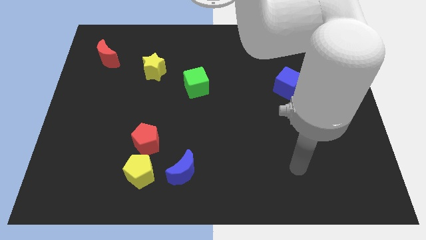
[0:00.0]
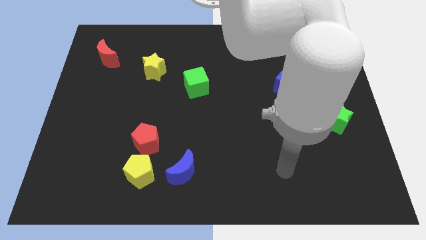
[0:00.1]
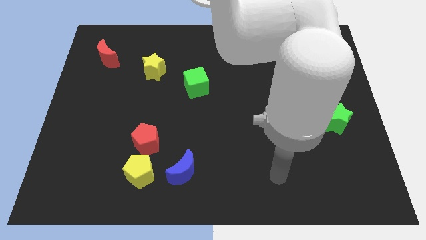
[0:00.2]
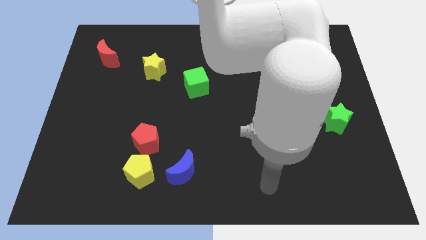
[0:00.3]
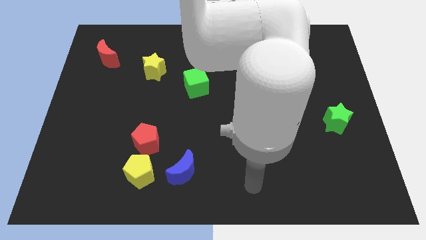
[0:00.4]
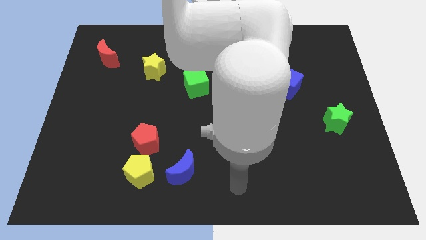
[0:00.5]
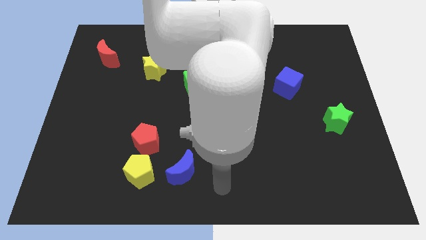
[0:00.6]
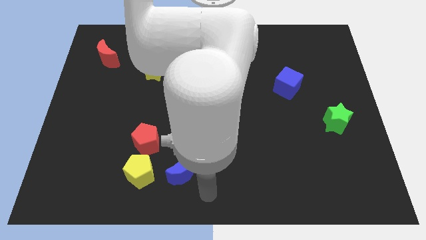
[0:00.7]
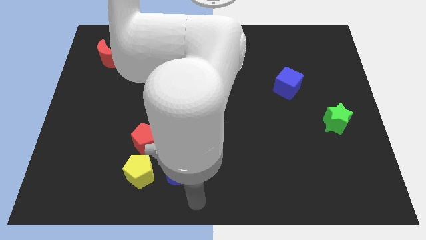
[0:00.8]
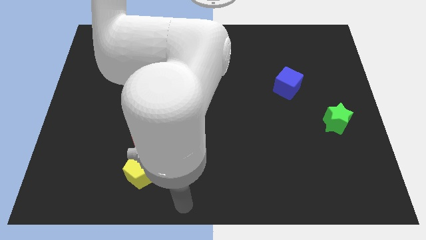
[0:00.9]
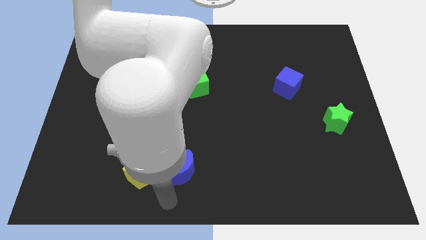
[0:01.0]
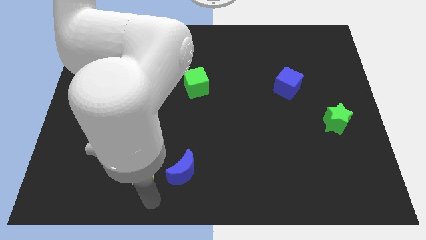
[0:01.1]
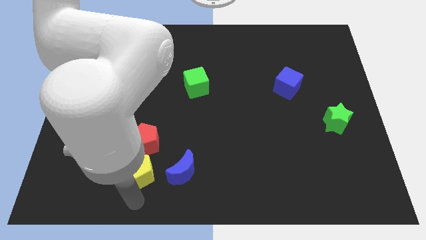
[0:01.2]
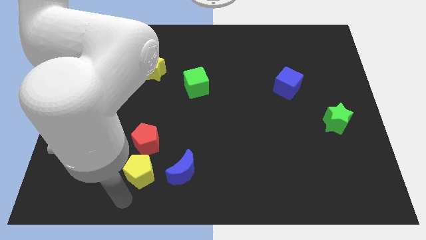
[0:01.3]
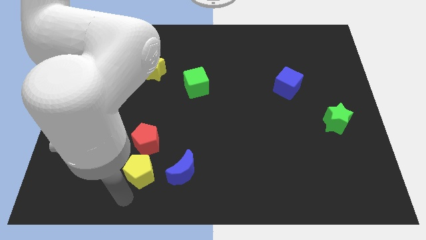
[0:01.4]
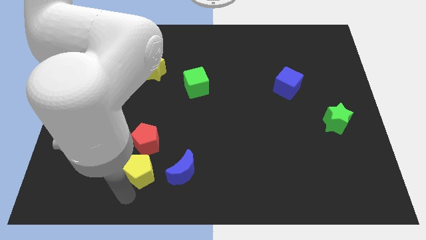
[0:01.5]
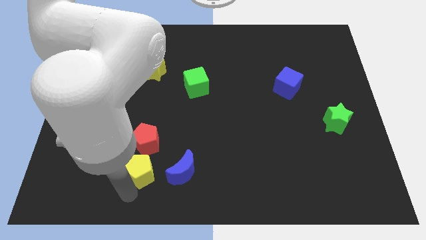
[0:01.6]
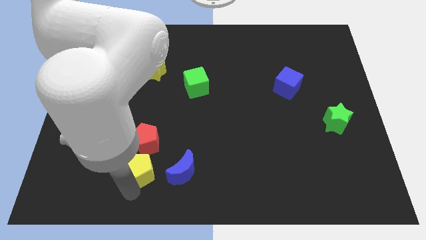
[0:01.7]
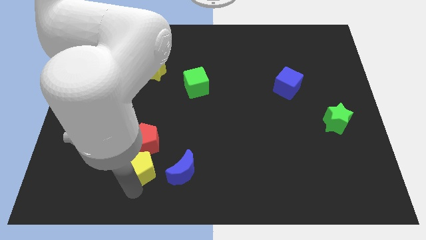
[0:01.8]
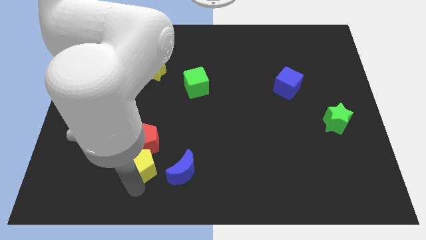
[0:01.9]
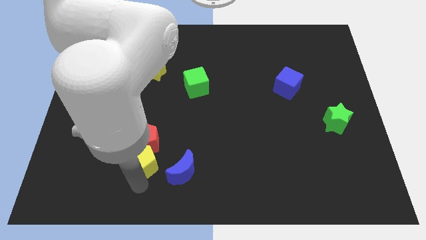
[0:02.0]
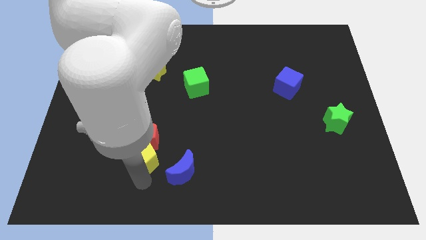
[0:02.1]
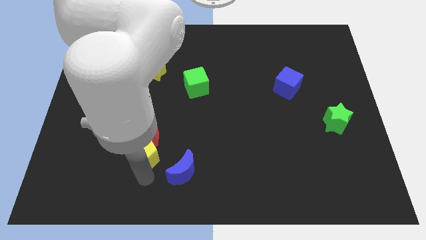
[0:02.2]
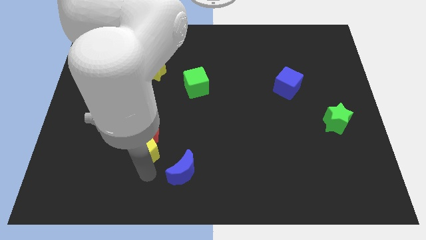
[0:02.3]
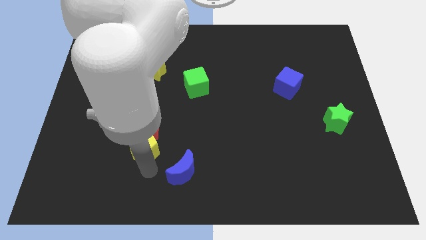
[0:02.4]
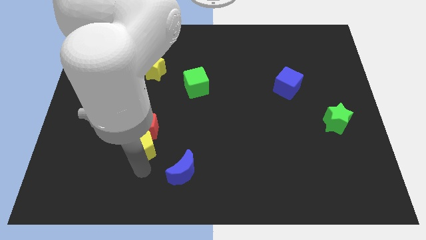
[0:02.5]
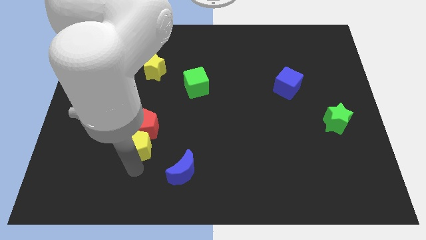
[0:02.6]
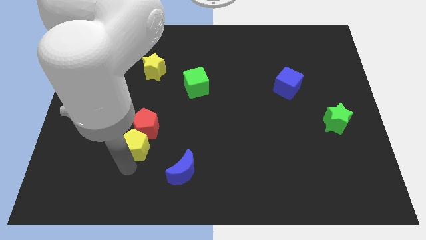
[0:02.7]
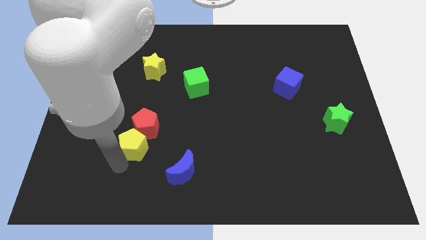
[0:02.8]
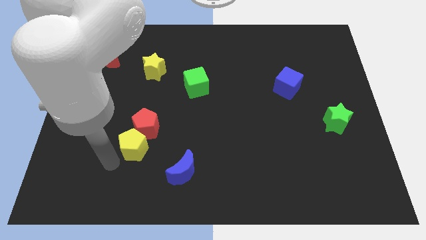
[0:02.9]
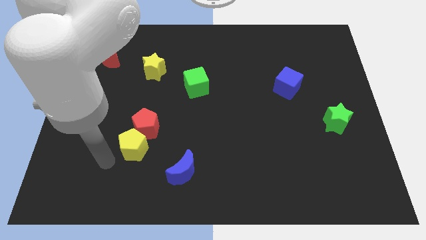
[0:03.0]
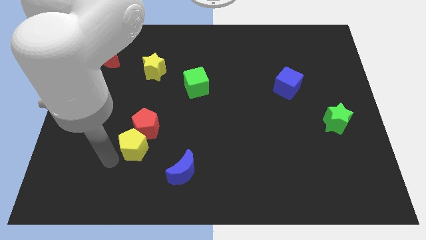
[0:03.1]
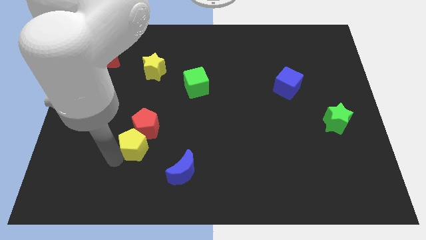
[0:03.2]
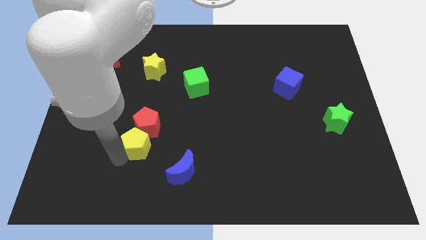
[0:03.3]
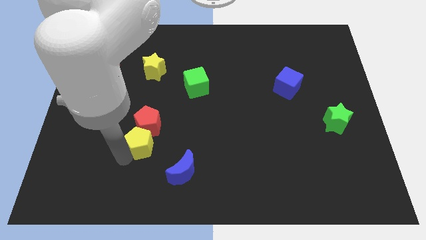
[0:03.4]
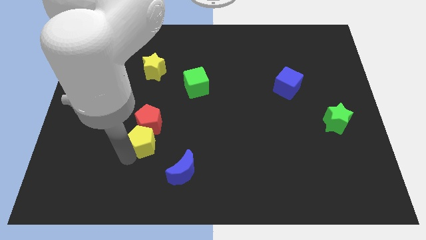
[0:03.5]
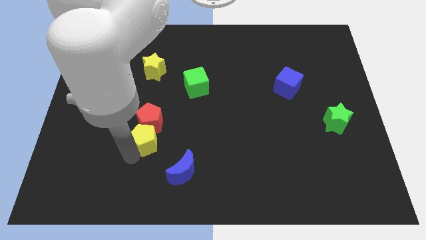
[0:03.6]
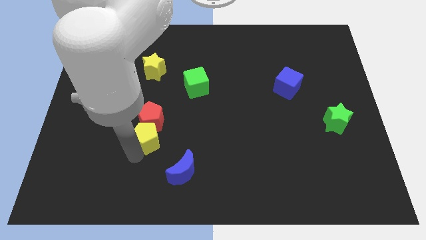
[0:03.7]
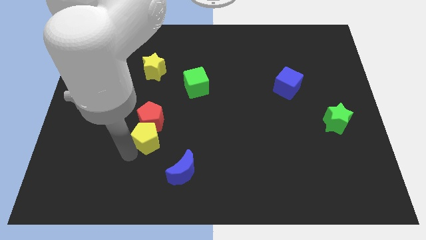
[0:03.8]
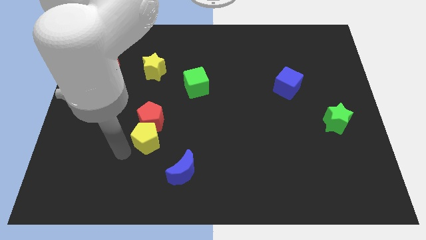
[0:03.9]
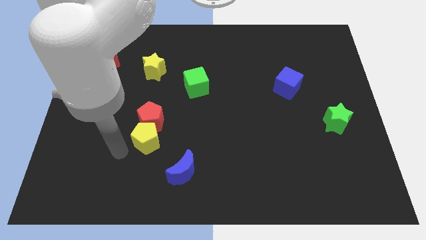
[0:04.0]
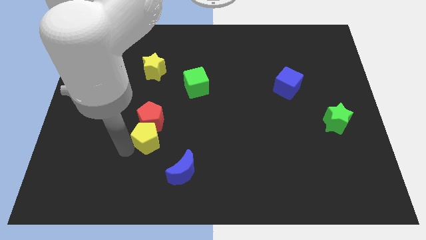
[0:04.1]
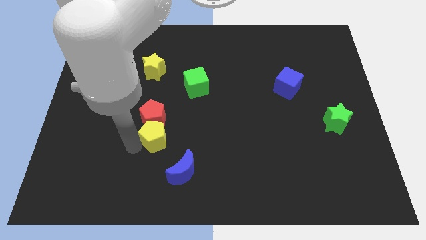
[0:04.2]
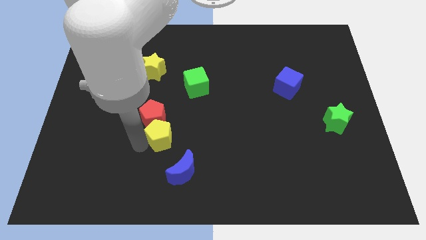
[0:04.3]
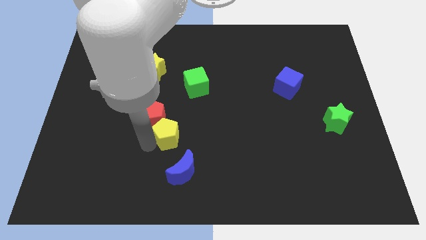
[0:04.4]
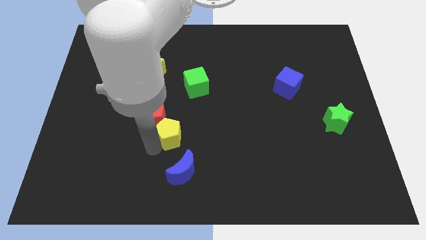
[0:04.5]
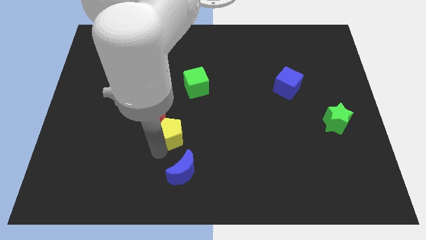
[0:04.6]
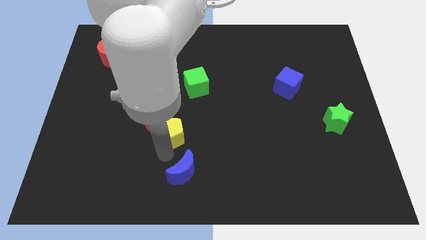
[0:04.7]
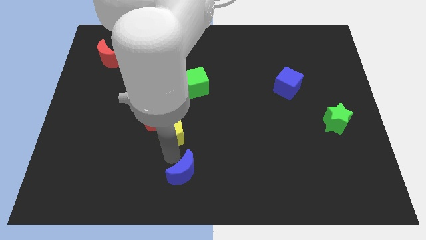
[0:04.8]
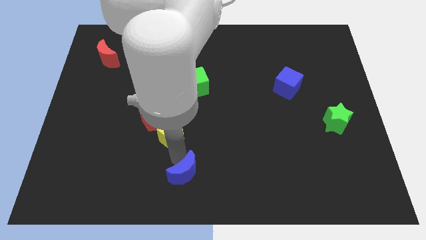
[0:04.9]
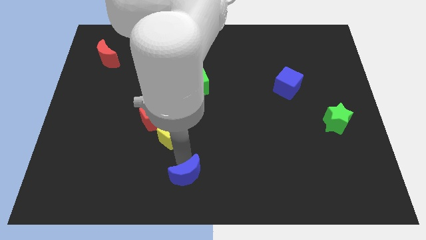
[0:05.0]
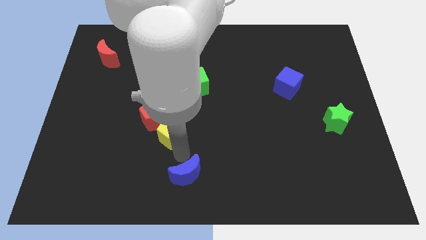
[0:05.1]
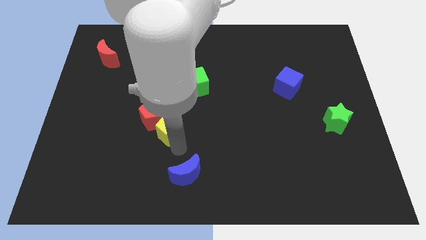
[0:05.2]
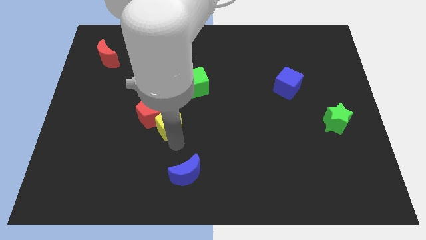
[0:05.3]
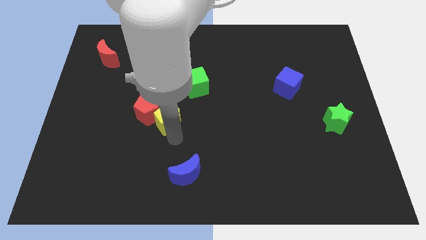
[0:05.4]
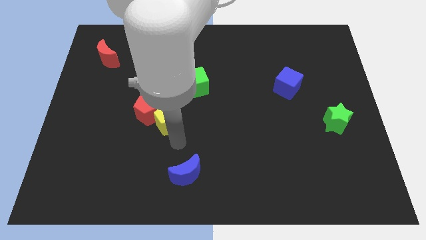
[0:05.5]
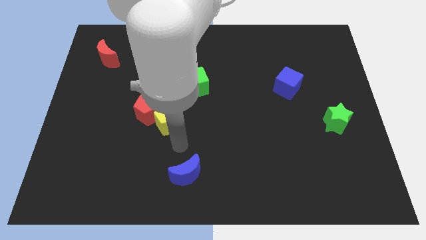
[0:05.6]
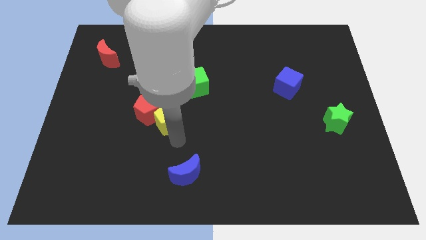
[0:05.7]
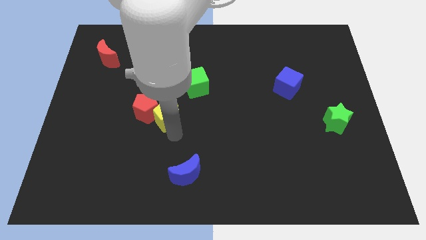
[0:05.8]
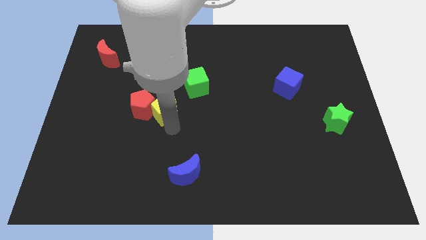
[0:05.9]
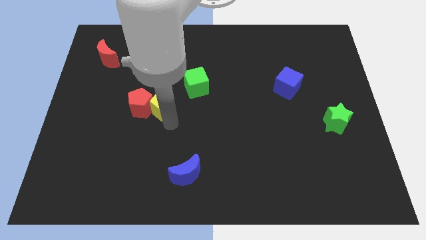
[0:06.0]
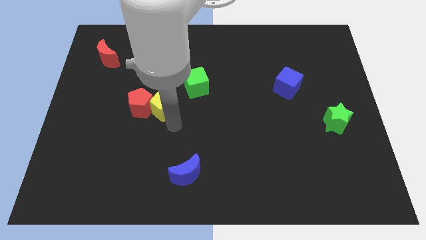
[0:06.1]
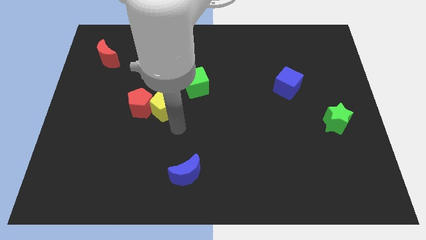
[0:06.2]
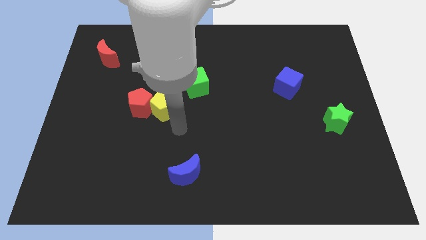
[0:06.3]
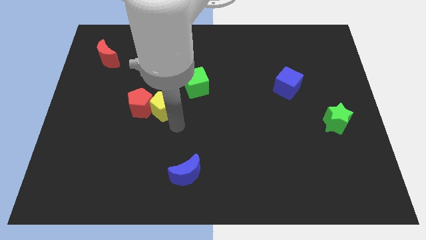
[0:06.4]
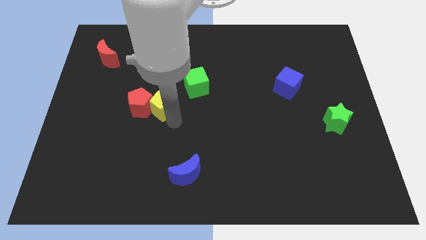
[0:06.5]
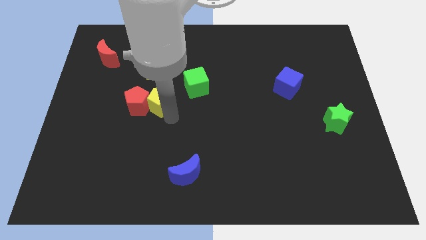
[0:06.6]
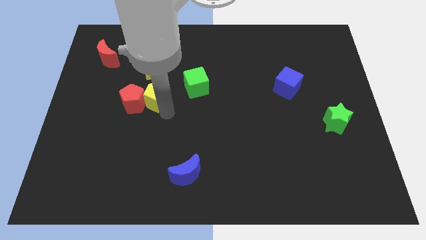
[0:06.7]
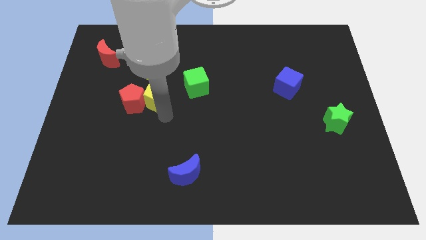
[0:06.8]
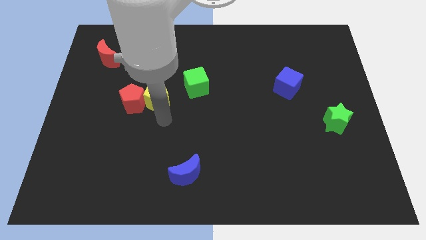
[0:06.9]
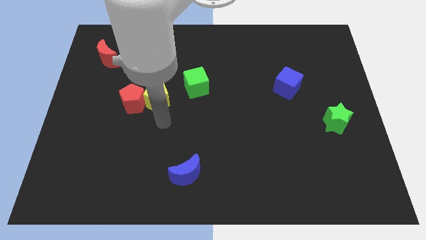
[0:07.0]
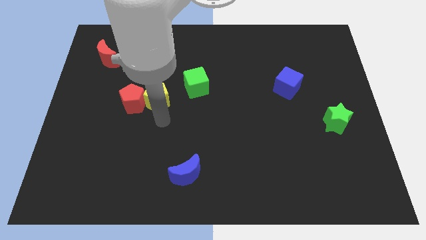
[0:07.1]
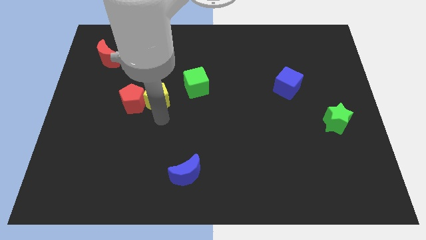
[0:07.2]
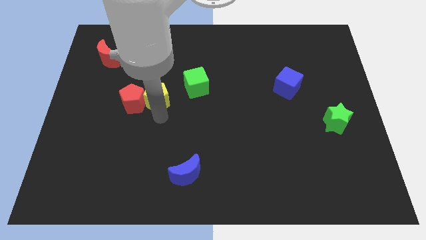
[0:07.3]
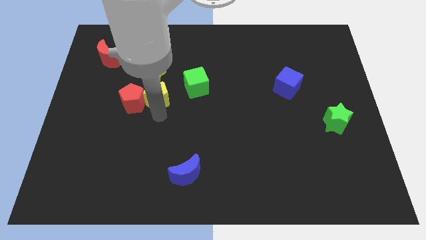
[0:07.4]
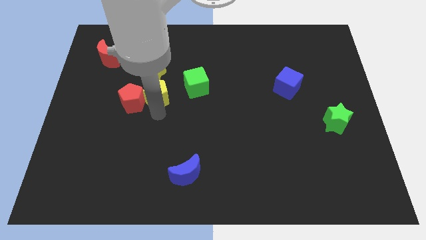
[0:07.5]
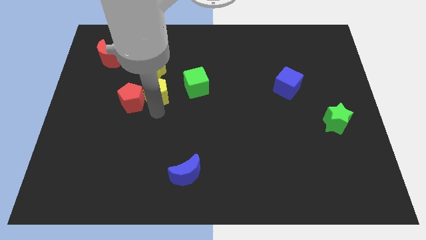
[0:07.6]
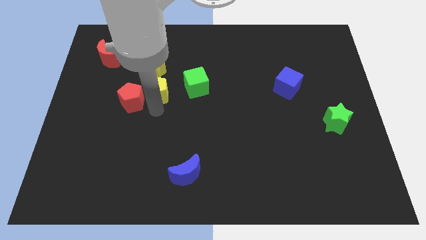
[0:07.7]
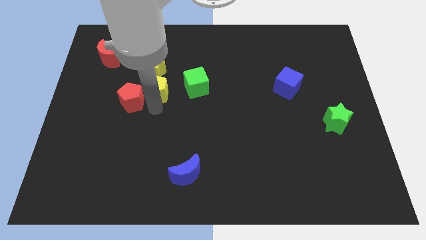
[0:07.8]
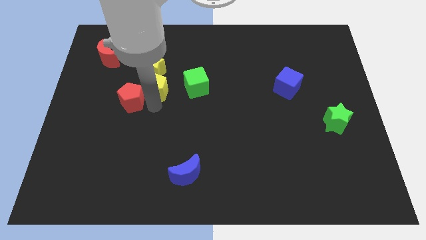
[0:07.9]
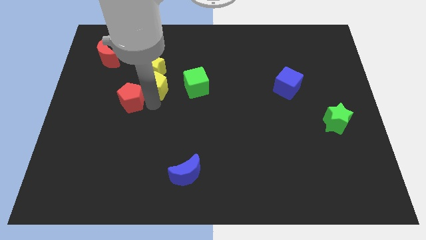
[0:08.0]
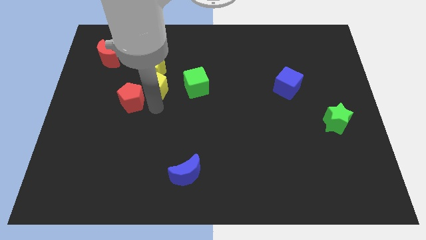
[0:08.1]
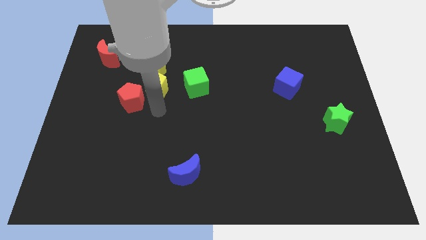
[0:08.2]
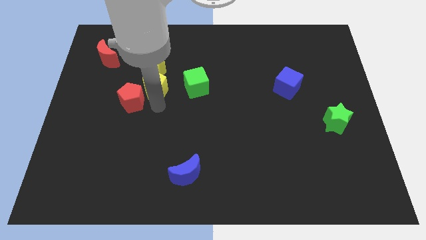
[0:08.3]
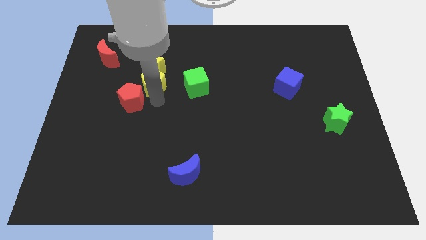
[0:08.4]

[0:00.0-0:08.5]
slide the yellow pentagon next to the yellow star
